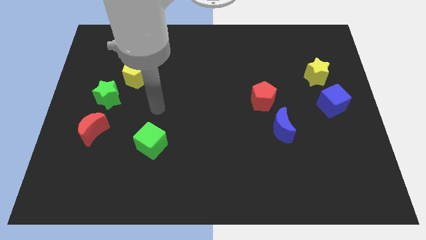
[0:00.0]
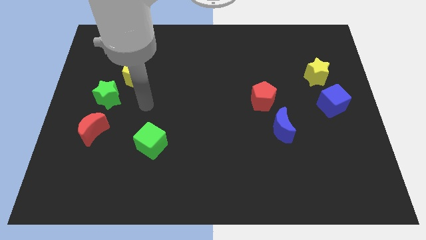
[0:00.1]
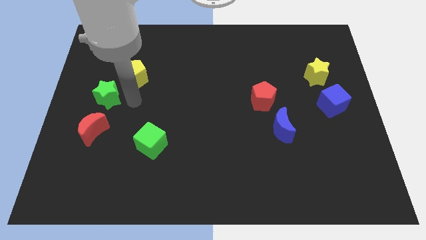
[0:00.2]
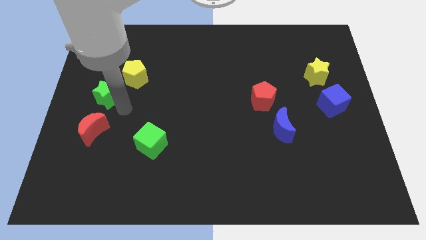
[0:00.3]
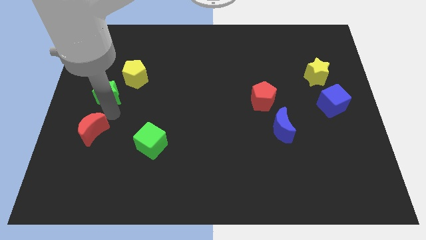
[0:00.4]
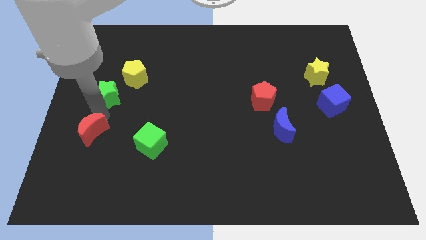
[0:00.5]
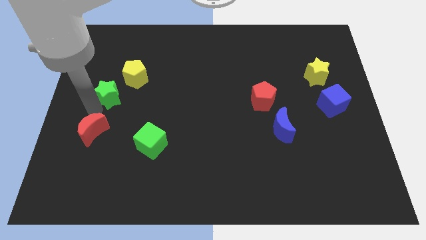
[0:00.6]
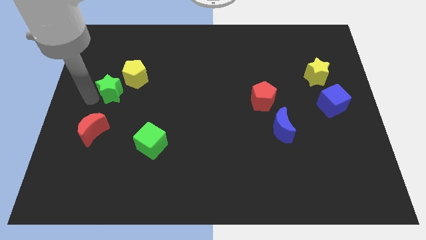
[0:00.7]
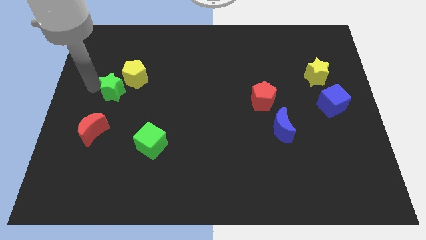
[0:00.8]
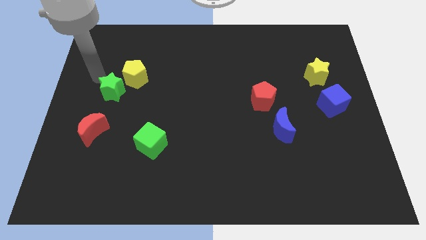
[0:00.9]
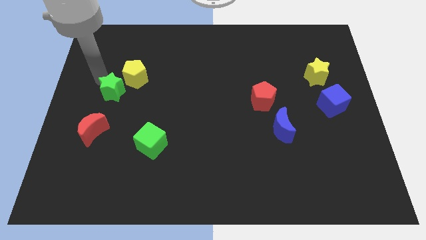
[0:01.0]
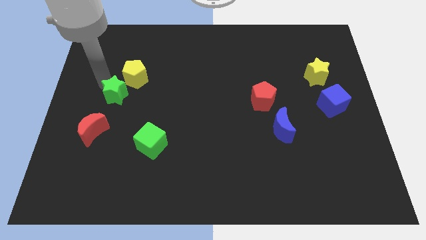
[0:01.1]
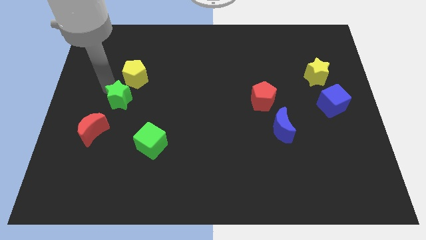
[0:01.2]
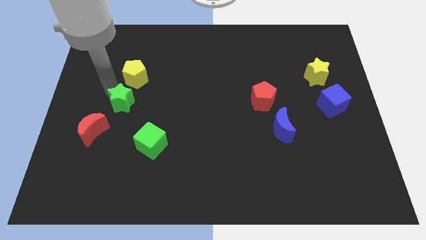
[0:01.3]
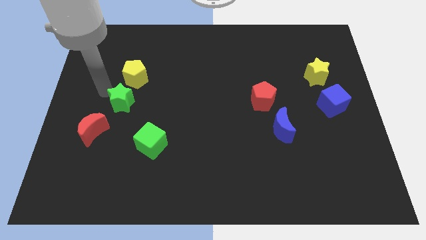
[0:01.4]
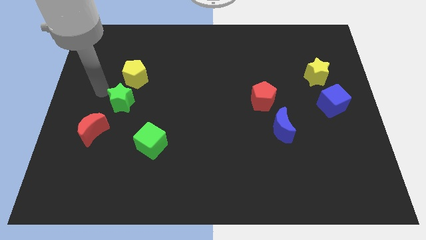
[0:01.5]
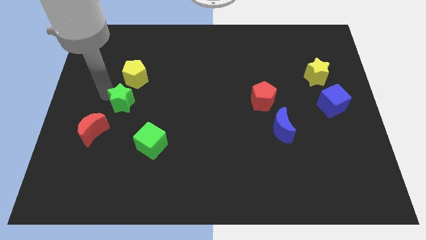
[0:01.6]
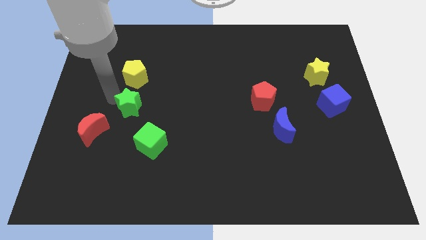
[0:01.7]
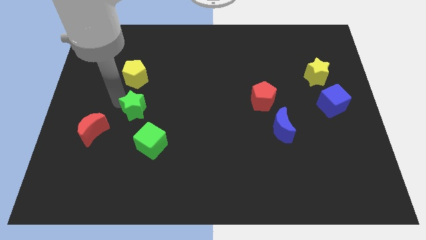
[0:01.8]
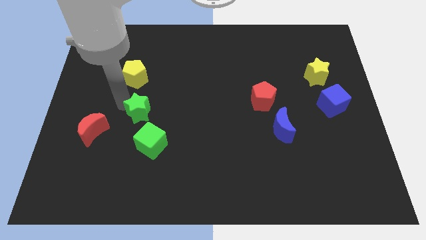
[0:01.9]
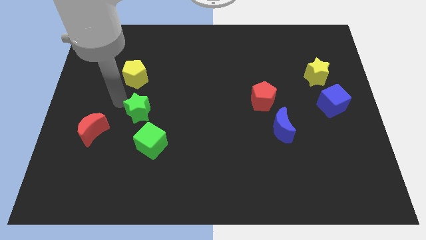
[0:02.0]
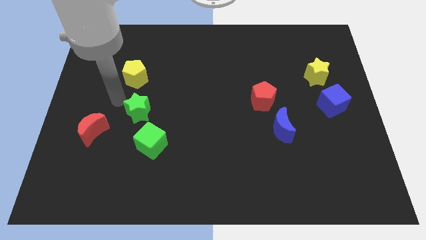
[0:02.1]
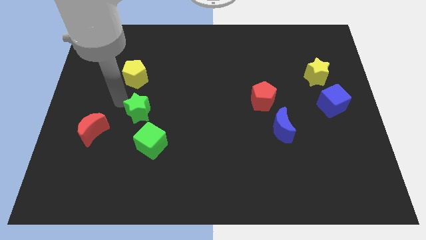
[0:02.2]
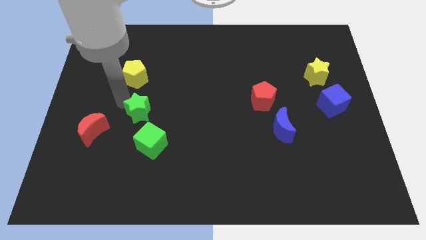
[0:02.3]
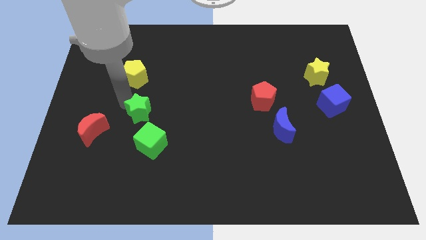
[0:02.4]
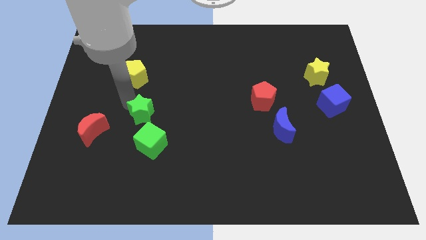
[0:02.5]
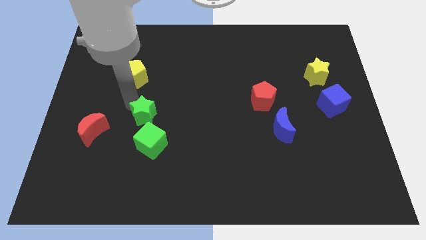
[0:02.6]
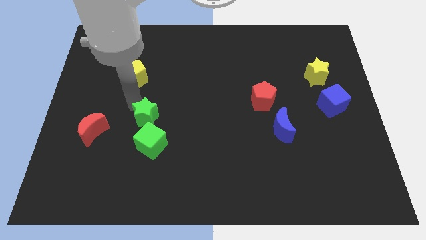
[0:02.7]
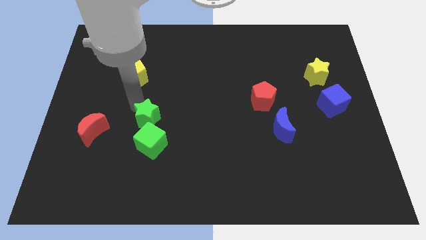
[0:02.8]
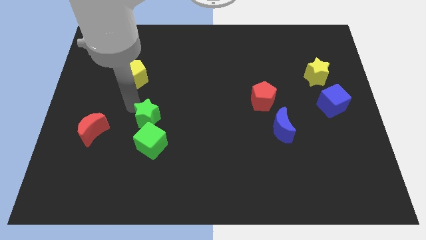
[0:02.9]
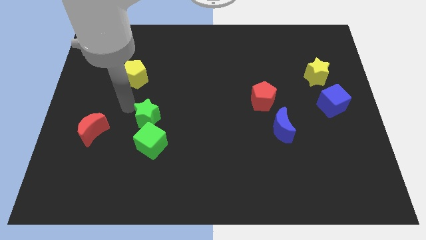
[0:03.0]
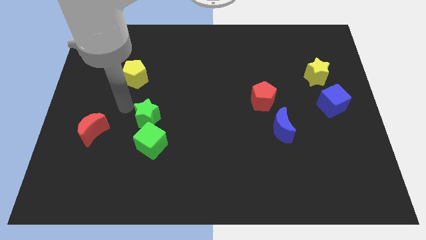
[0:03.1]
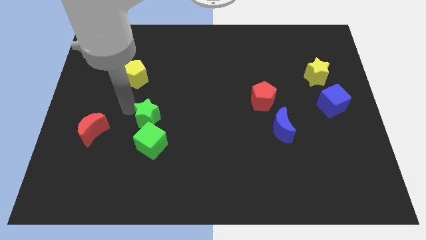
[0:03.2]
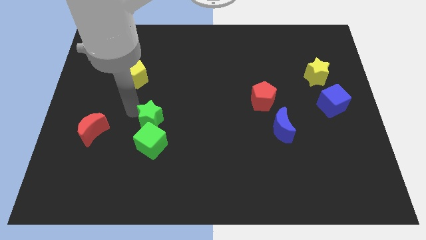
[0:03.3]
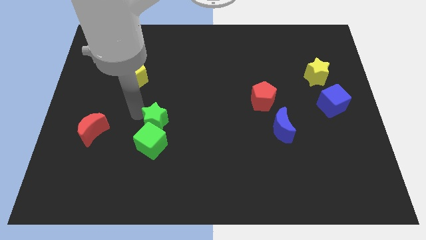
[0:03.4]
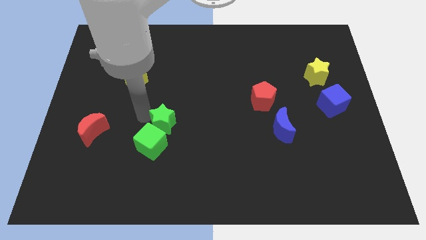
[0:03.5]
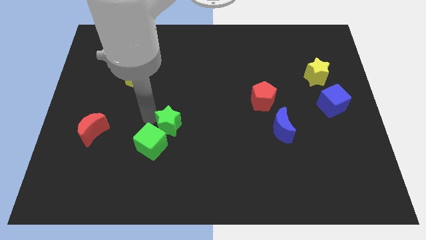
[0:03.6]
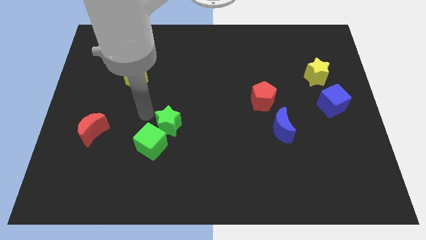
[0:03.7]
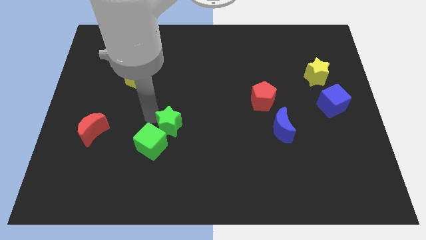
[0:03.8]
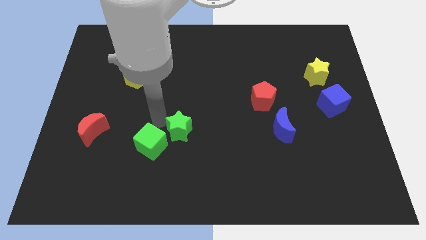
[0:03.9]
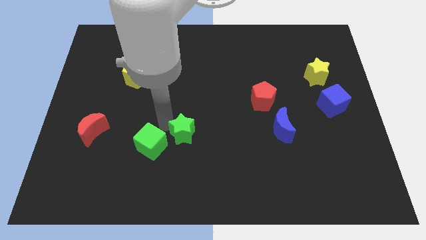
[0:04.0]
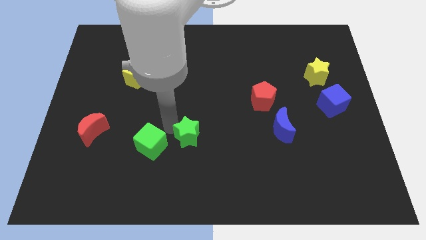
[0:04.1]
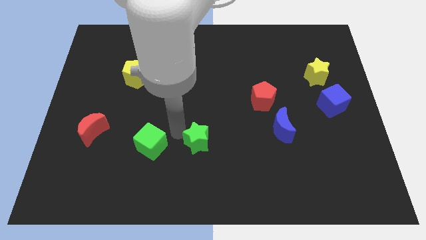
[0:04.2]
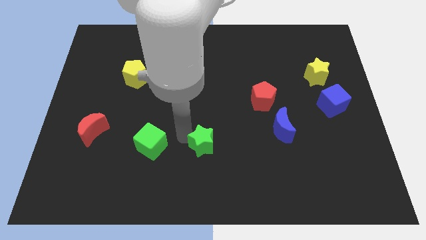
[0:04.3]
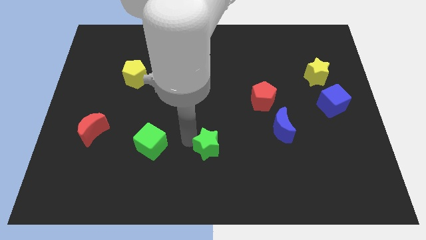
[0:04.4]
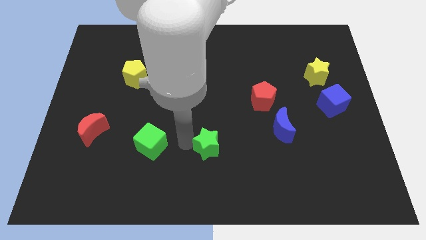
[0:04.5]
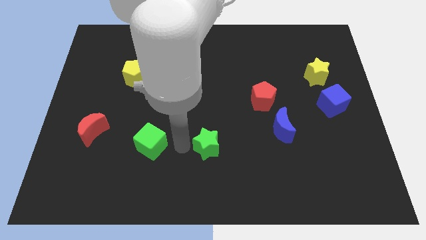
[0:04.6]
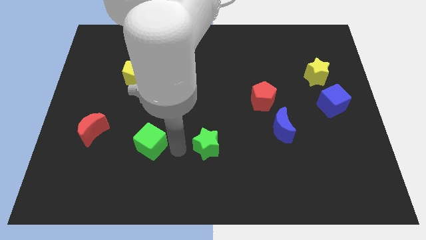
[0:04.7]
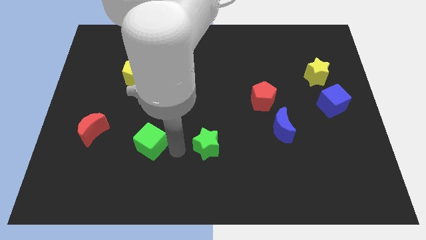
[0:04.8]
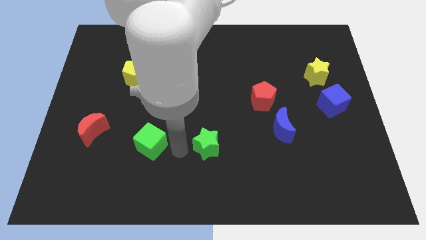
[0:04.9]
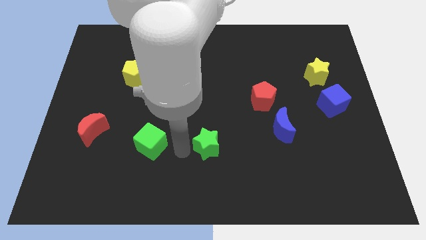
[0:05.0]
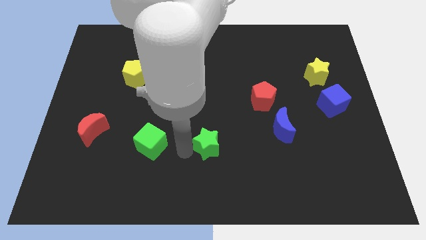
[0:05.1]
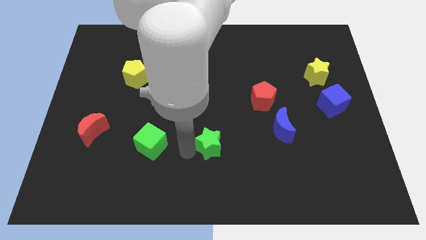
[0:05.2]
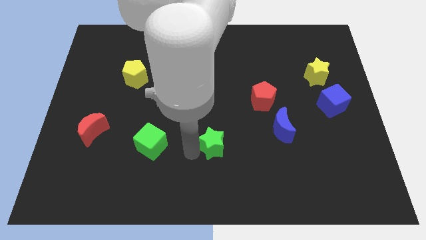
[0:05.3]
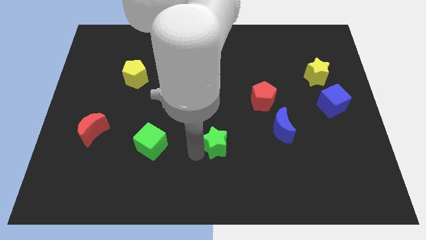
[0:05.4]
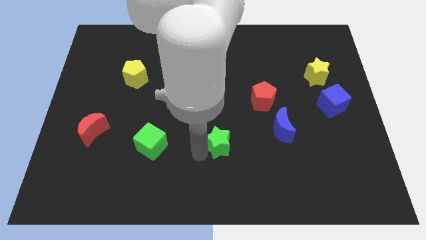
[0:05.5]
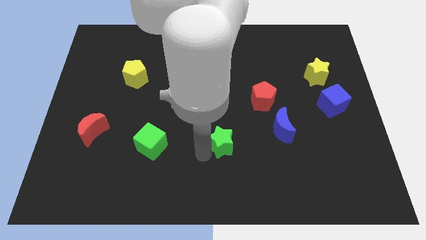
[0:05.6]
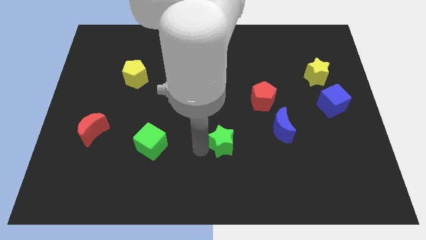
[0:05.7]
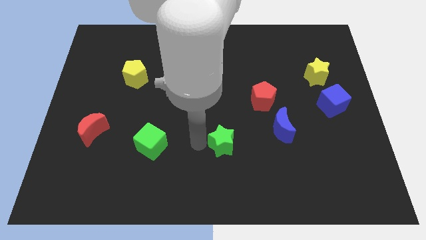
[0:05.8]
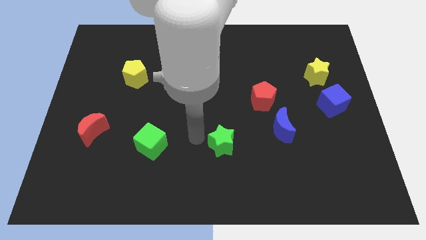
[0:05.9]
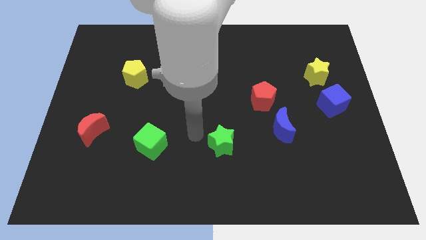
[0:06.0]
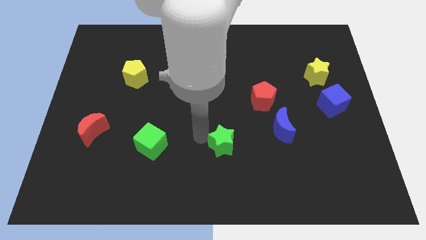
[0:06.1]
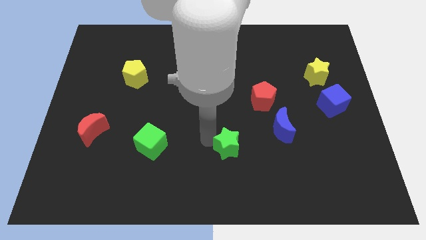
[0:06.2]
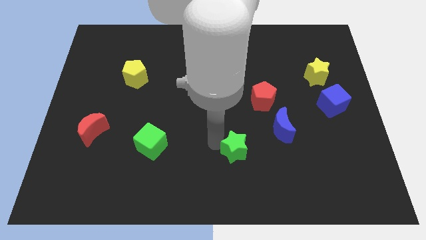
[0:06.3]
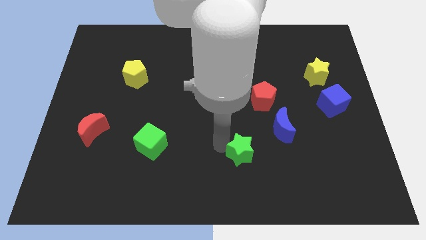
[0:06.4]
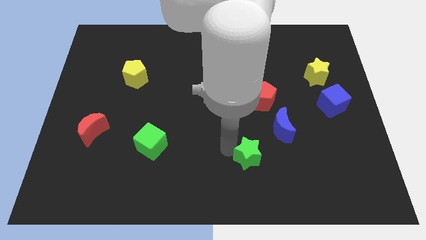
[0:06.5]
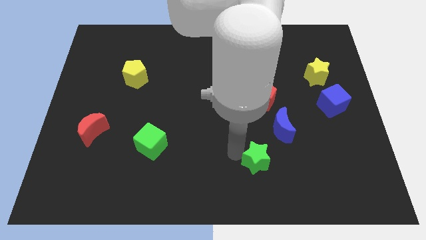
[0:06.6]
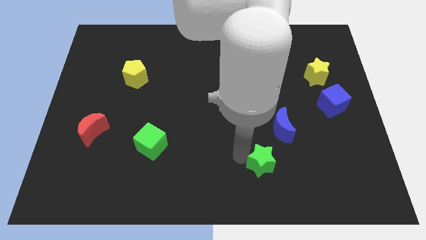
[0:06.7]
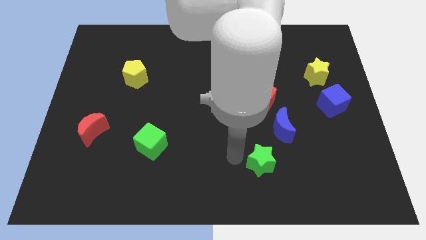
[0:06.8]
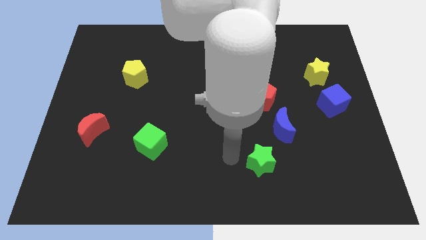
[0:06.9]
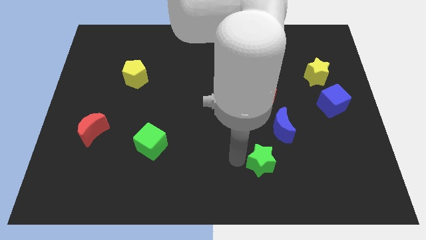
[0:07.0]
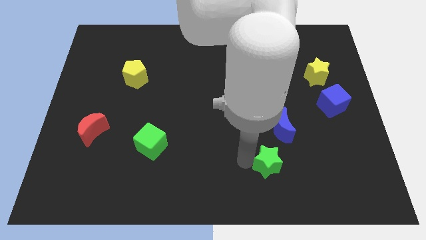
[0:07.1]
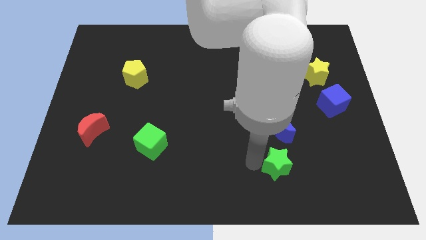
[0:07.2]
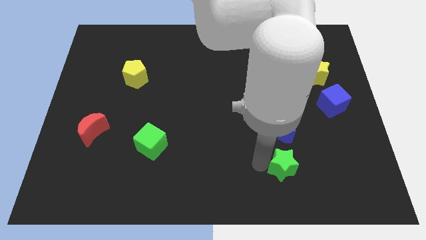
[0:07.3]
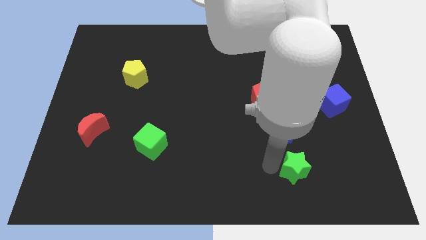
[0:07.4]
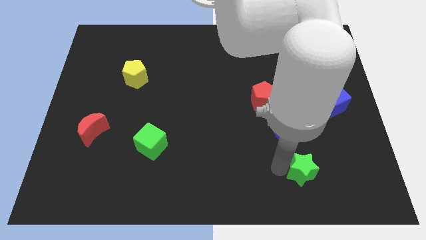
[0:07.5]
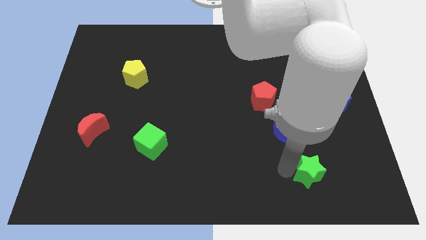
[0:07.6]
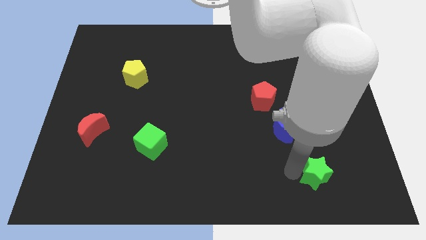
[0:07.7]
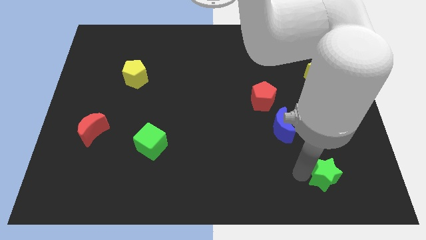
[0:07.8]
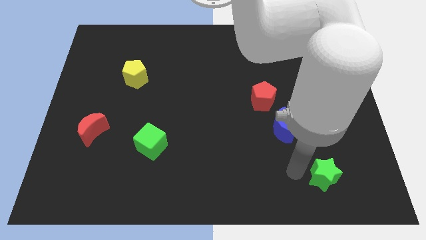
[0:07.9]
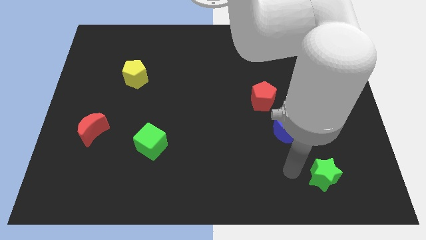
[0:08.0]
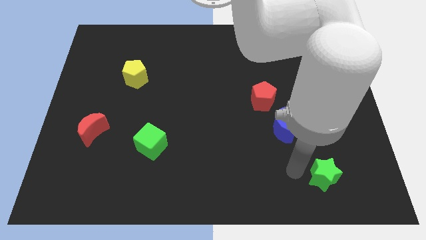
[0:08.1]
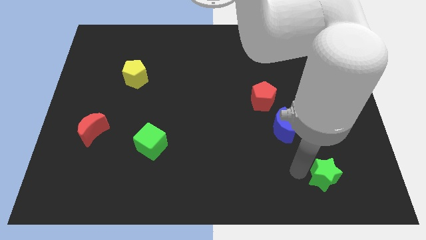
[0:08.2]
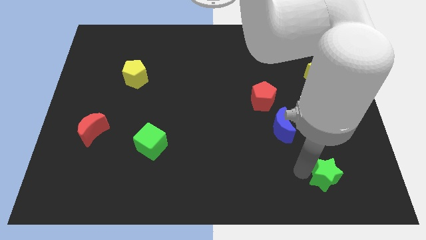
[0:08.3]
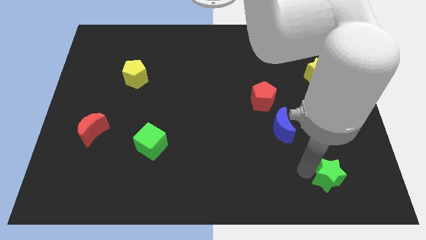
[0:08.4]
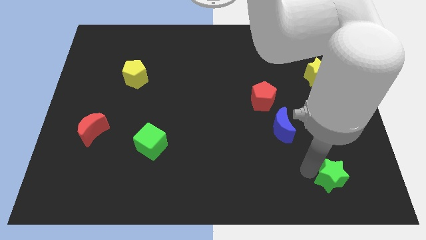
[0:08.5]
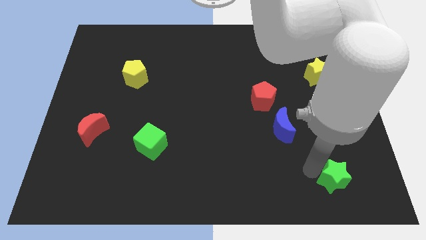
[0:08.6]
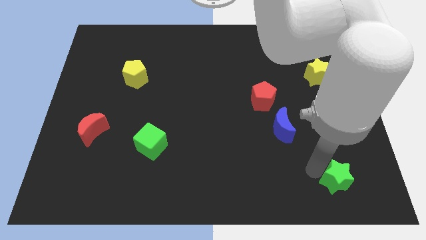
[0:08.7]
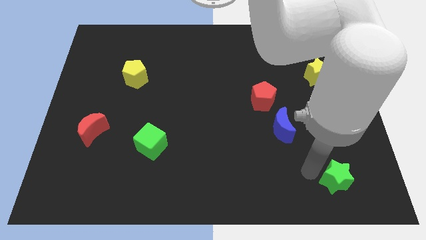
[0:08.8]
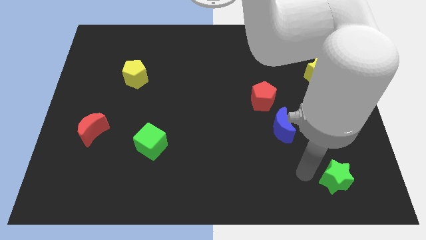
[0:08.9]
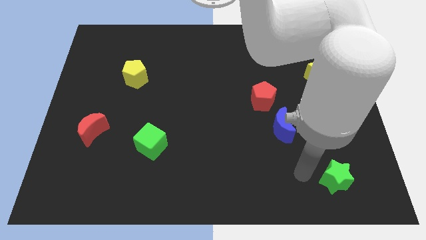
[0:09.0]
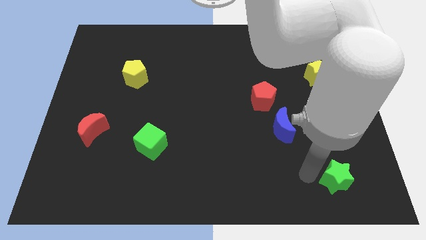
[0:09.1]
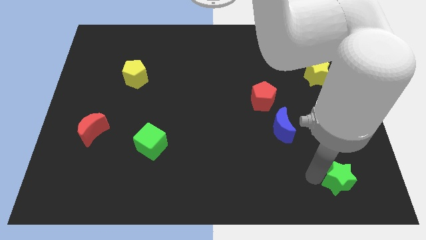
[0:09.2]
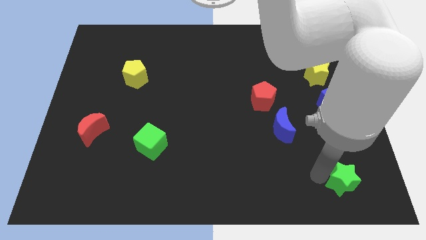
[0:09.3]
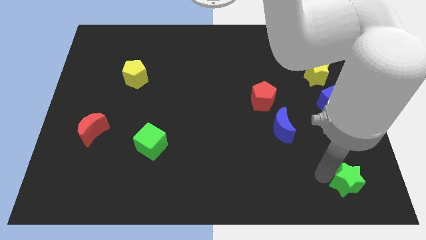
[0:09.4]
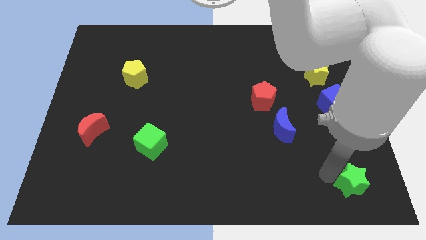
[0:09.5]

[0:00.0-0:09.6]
push the green star to the lower right corner
